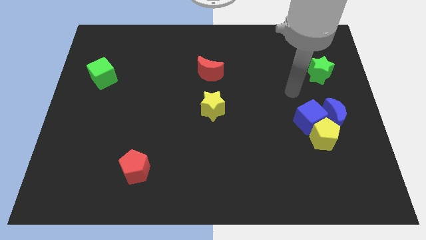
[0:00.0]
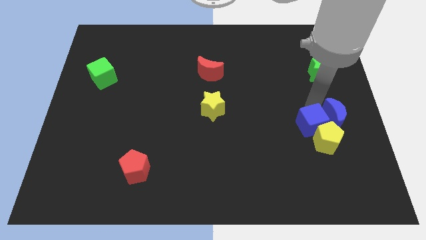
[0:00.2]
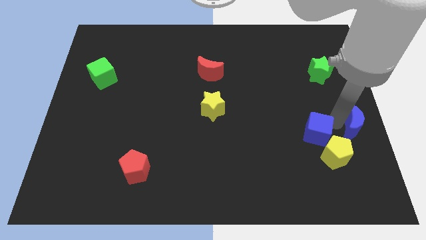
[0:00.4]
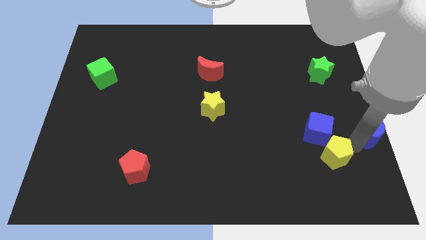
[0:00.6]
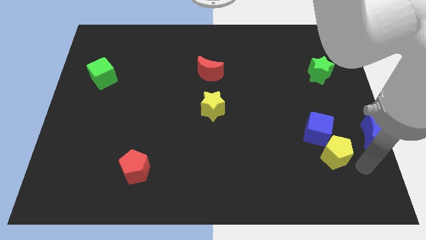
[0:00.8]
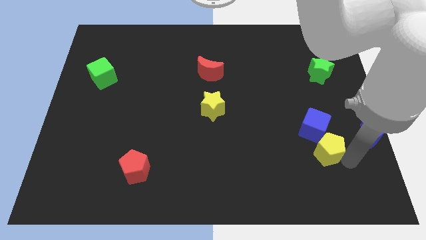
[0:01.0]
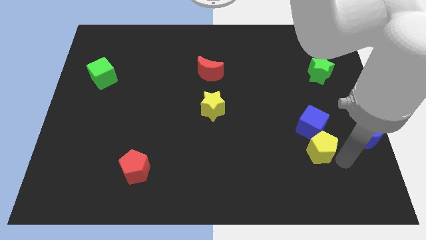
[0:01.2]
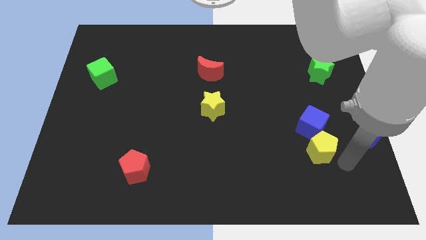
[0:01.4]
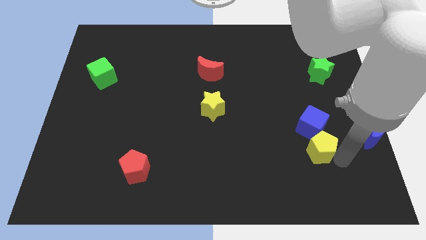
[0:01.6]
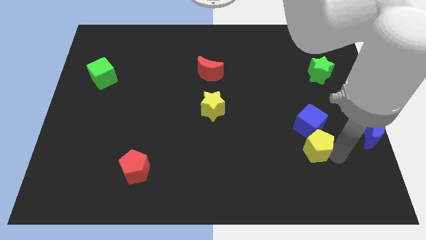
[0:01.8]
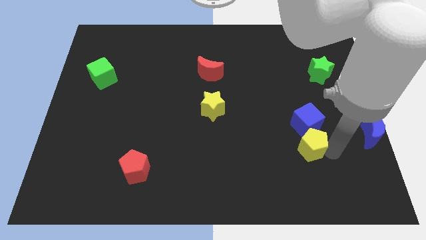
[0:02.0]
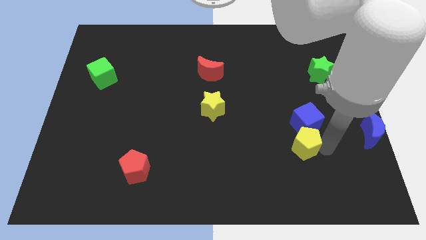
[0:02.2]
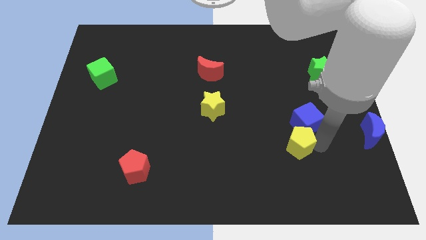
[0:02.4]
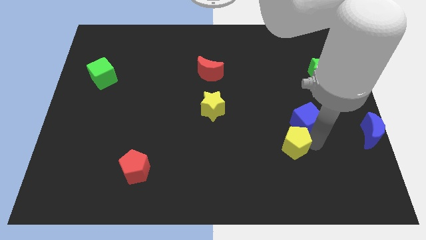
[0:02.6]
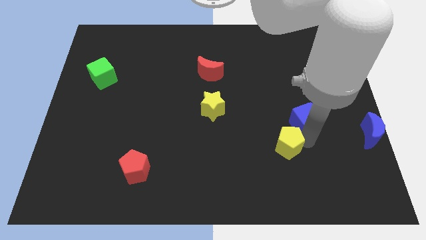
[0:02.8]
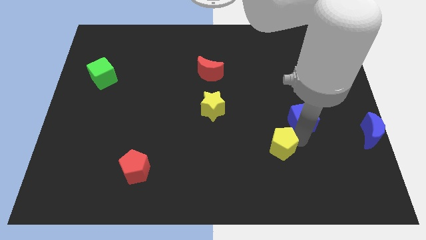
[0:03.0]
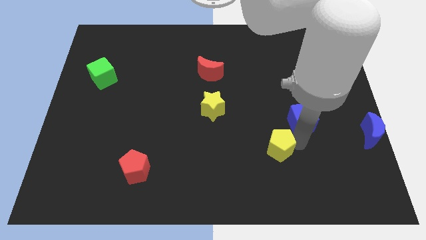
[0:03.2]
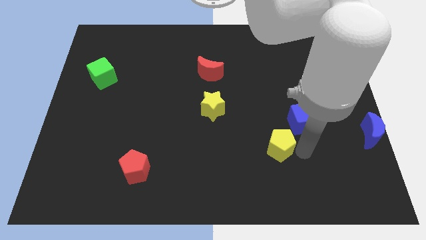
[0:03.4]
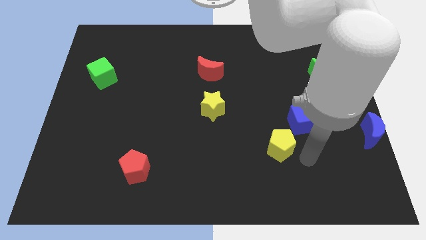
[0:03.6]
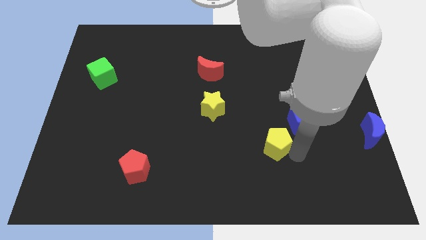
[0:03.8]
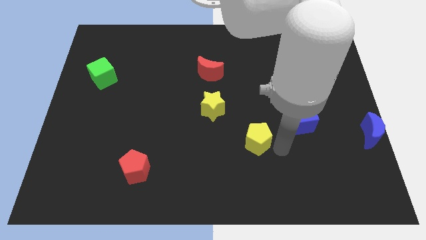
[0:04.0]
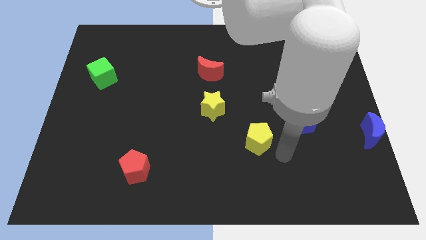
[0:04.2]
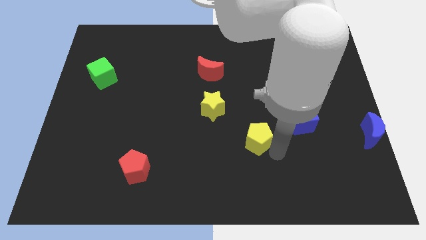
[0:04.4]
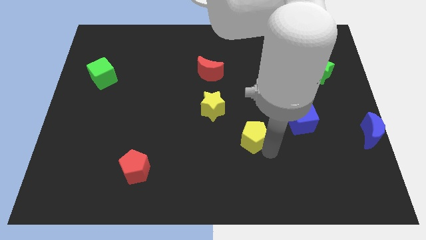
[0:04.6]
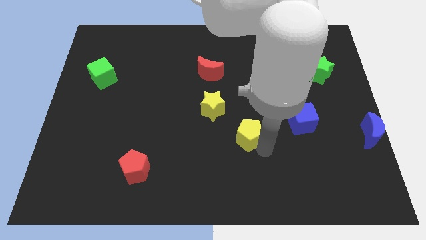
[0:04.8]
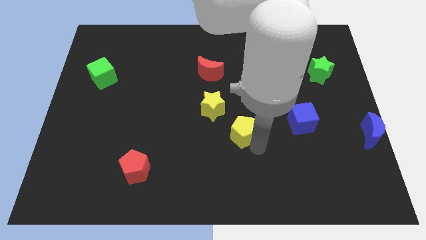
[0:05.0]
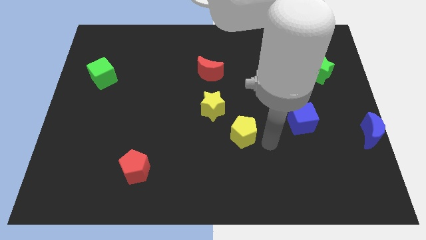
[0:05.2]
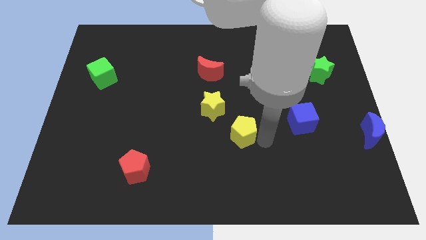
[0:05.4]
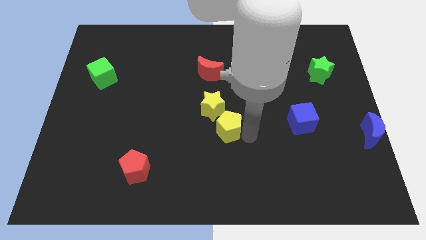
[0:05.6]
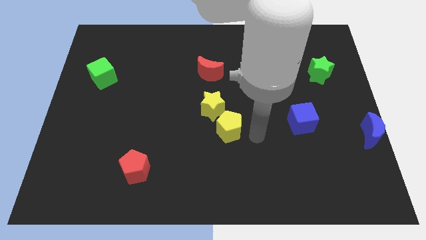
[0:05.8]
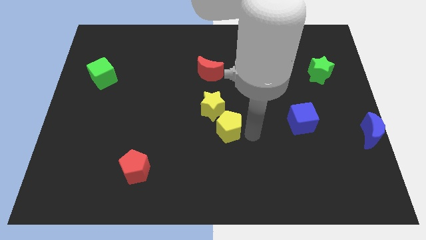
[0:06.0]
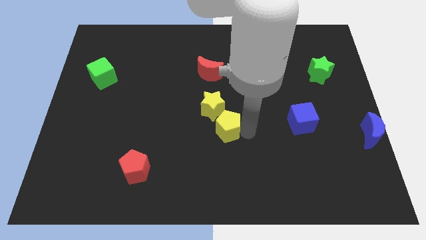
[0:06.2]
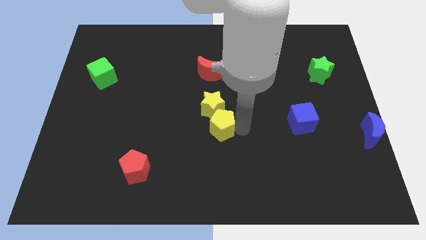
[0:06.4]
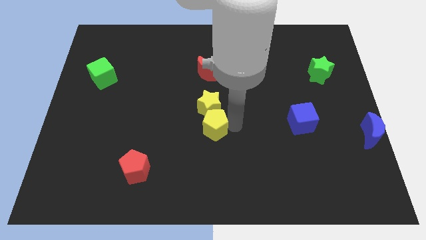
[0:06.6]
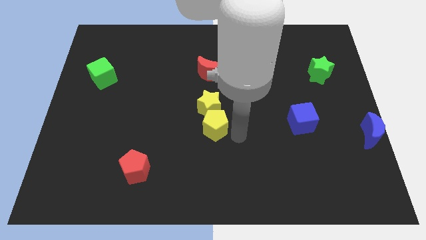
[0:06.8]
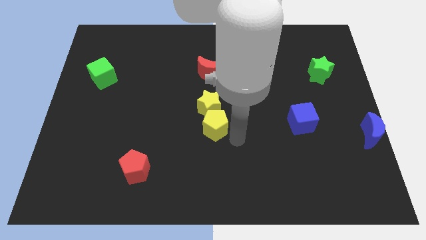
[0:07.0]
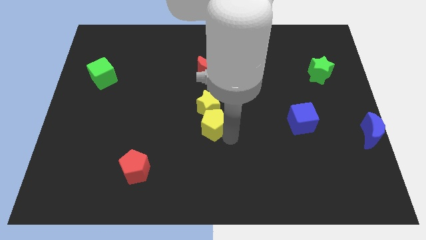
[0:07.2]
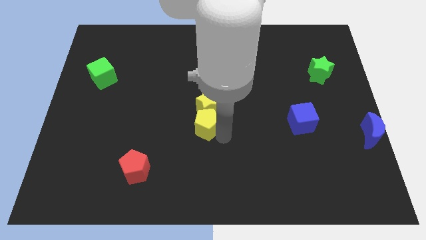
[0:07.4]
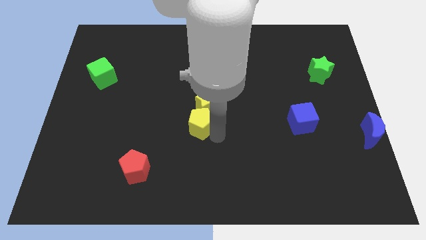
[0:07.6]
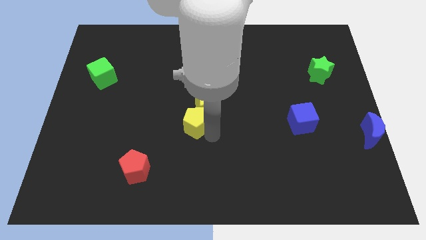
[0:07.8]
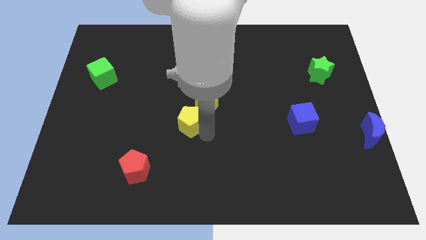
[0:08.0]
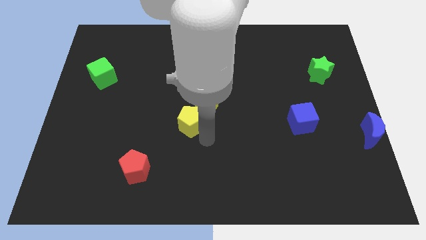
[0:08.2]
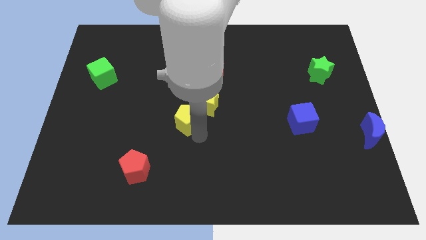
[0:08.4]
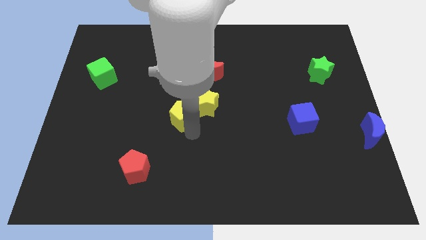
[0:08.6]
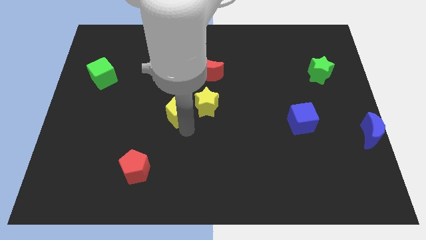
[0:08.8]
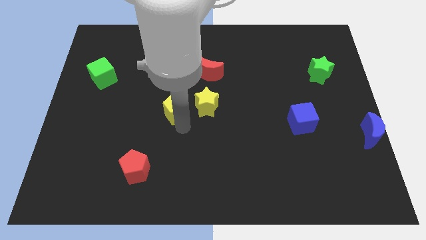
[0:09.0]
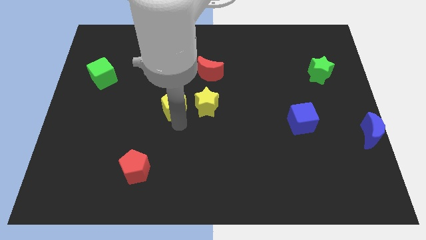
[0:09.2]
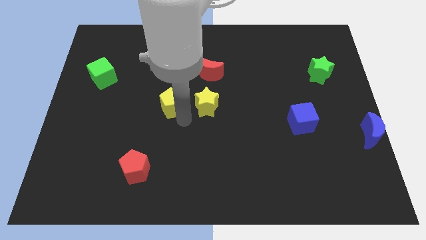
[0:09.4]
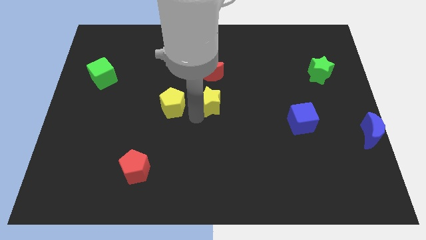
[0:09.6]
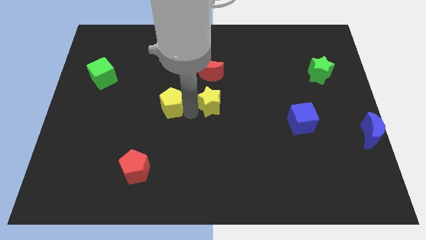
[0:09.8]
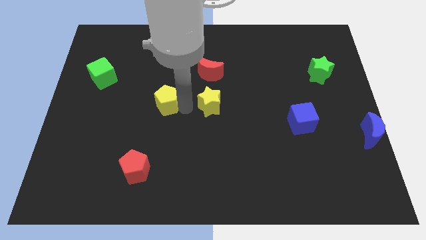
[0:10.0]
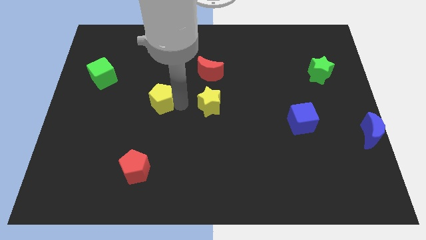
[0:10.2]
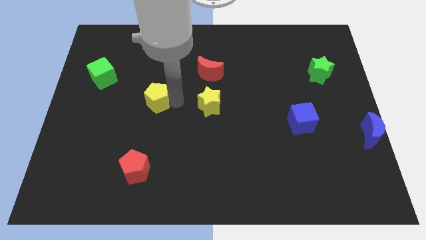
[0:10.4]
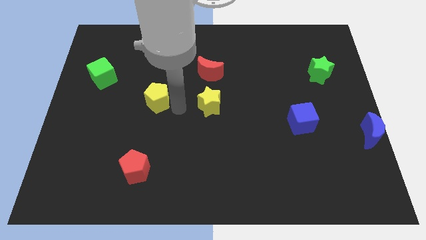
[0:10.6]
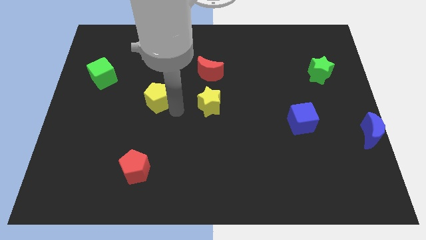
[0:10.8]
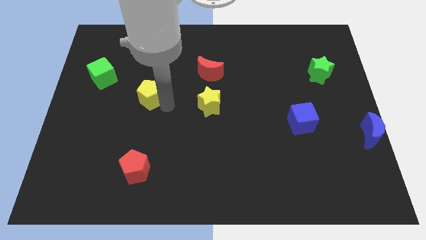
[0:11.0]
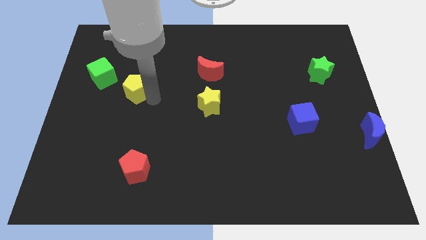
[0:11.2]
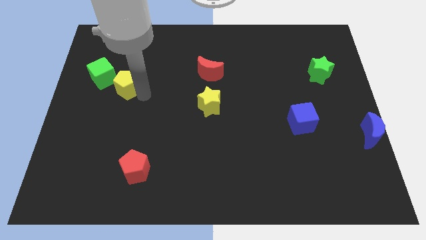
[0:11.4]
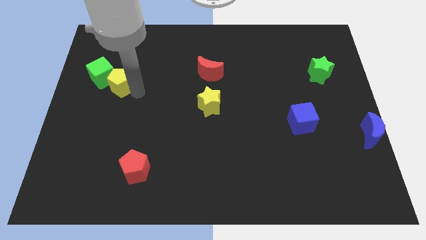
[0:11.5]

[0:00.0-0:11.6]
push the yellow pentagon towards the green cube

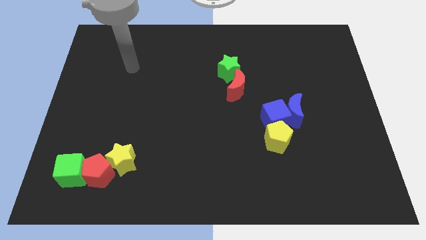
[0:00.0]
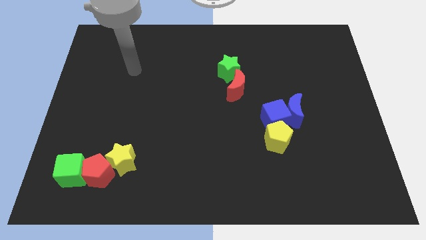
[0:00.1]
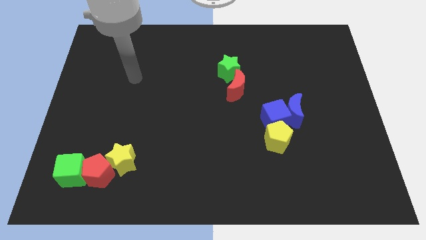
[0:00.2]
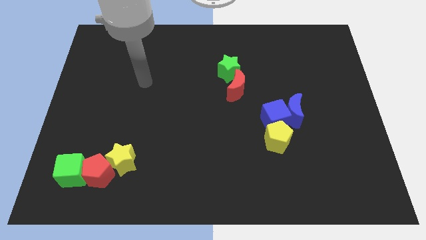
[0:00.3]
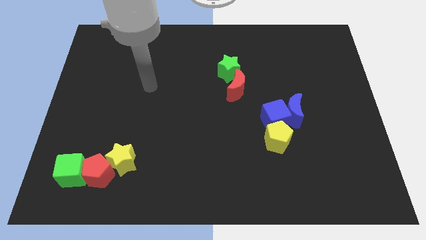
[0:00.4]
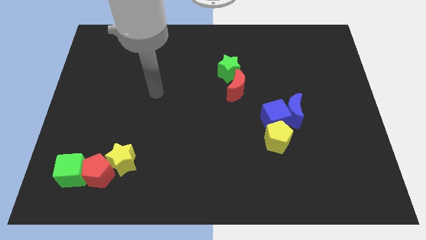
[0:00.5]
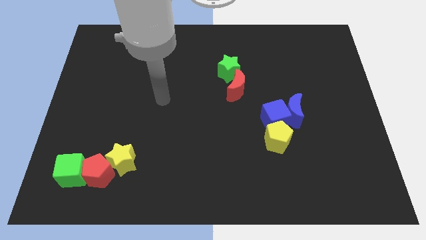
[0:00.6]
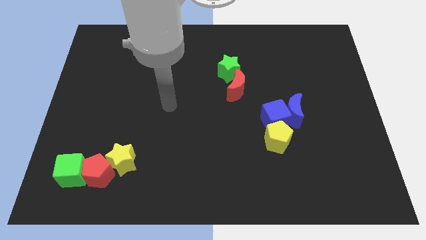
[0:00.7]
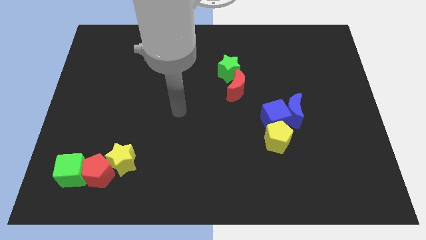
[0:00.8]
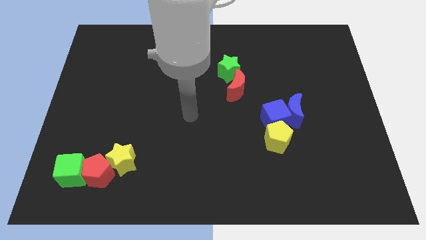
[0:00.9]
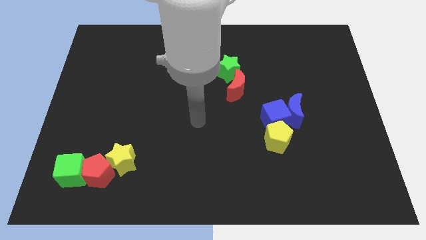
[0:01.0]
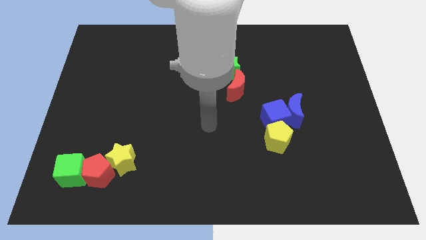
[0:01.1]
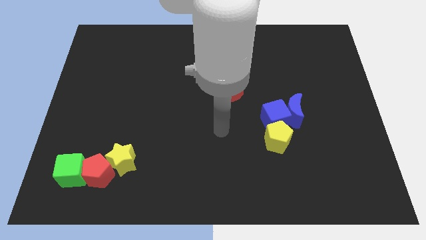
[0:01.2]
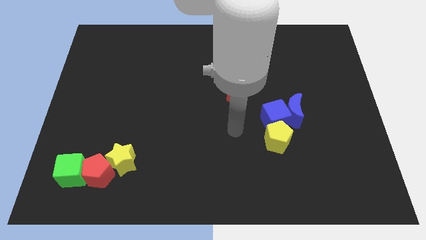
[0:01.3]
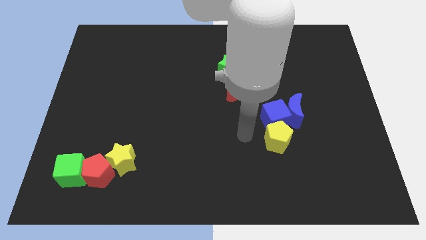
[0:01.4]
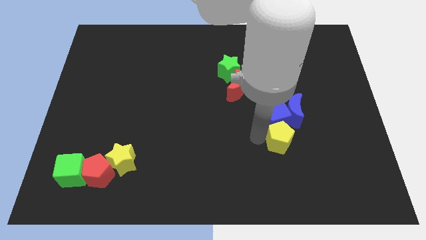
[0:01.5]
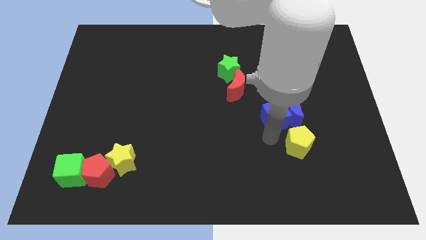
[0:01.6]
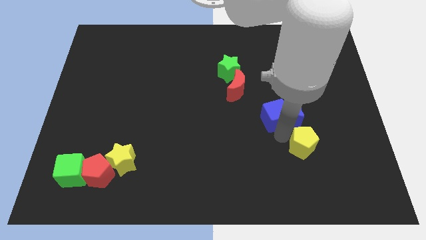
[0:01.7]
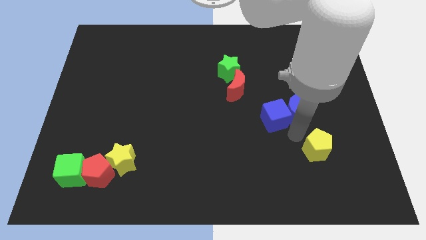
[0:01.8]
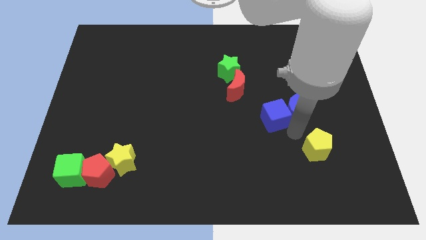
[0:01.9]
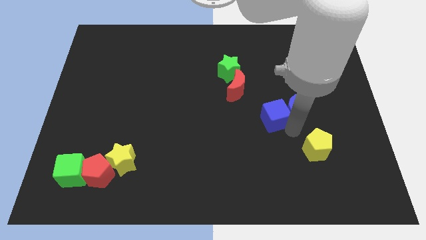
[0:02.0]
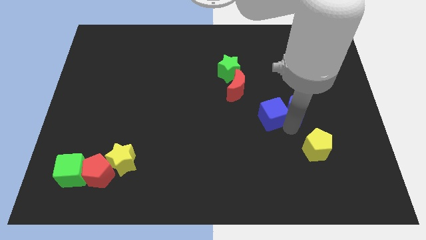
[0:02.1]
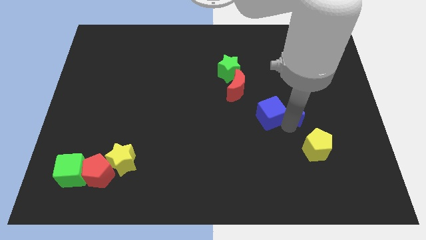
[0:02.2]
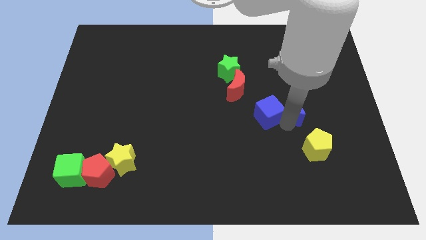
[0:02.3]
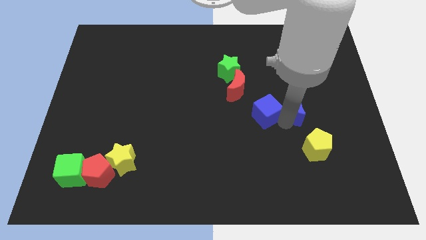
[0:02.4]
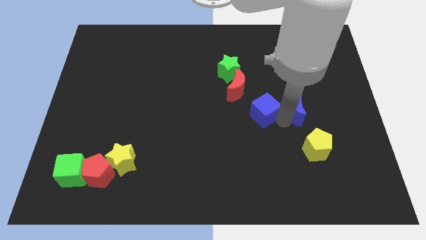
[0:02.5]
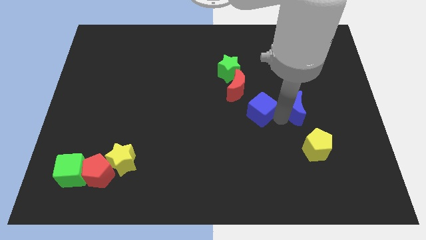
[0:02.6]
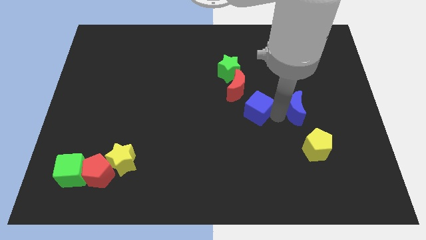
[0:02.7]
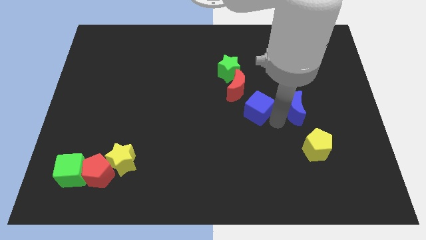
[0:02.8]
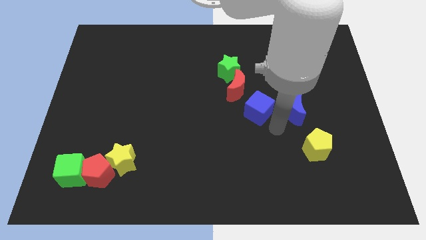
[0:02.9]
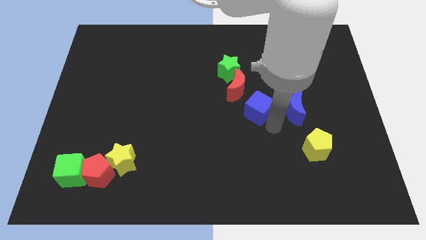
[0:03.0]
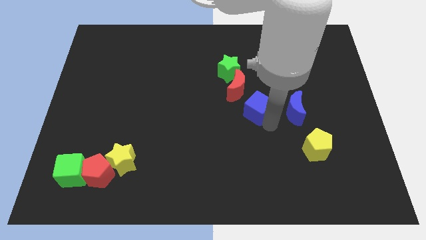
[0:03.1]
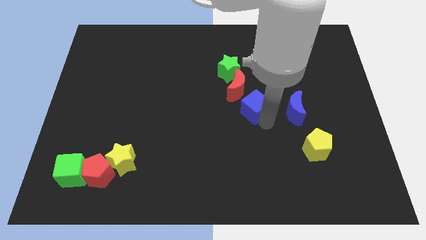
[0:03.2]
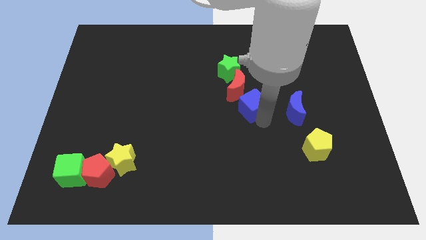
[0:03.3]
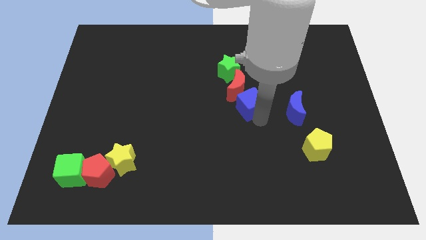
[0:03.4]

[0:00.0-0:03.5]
put the blue cube next to the red moon
